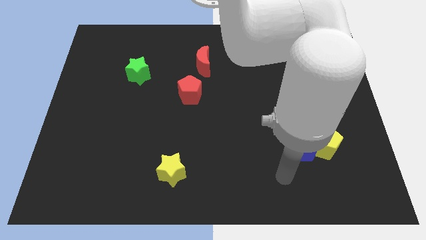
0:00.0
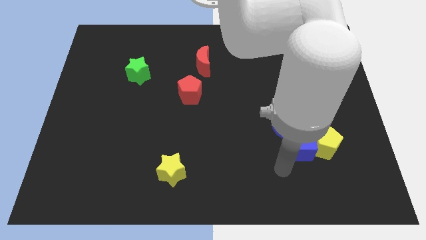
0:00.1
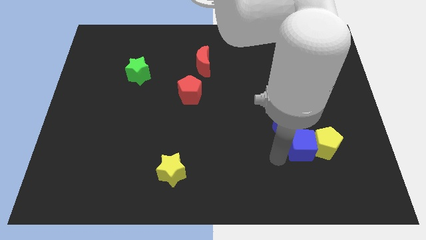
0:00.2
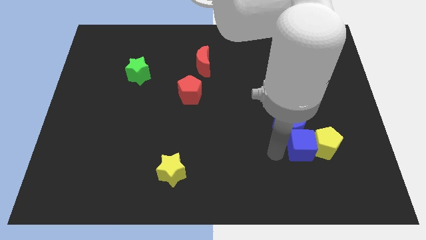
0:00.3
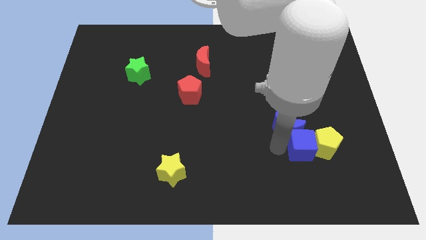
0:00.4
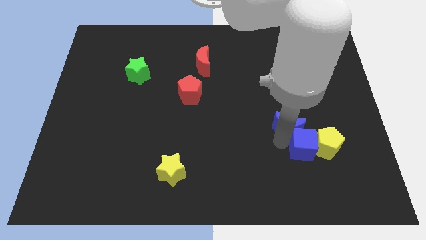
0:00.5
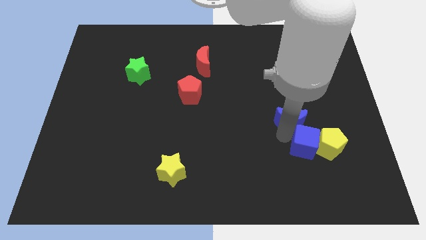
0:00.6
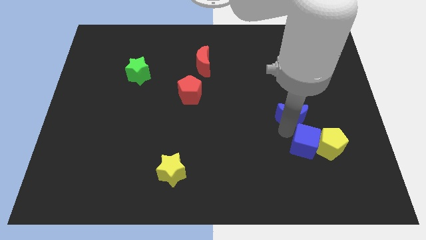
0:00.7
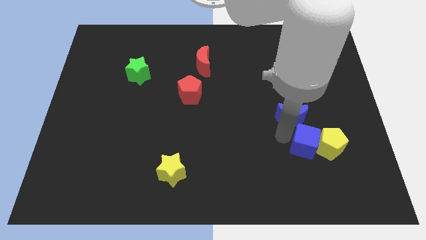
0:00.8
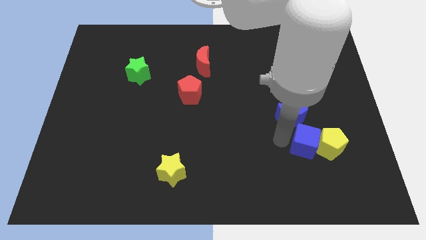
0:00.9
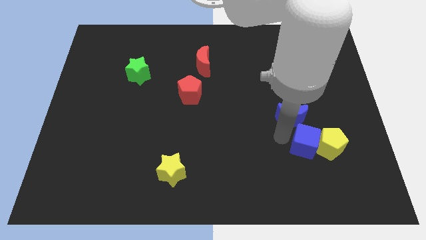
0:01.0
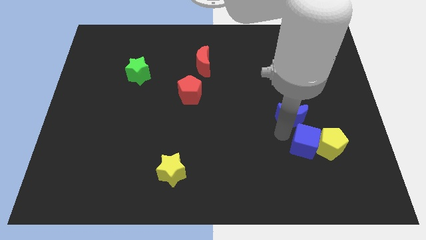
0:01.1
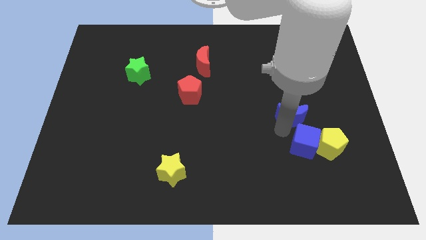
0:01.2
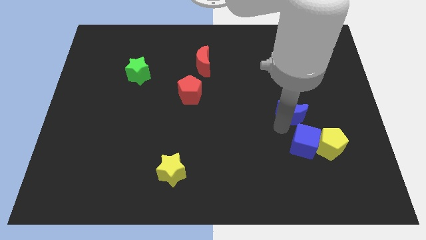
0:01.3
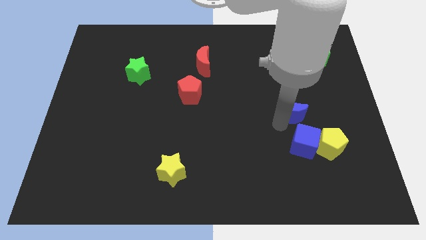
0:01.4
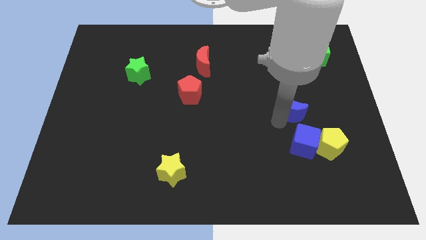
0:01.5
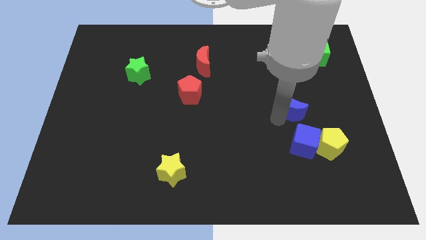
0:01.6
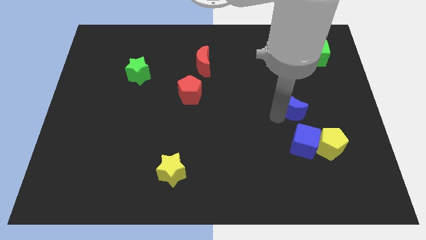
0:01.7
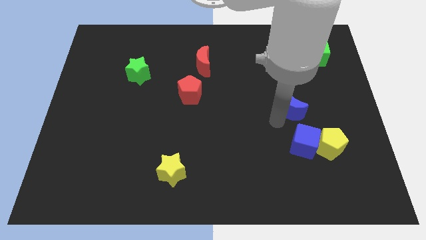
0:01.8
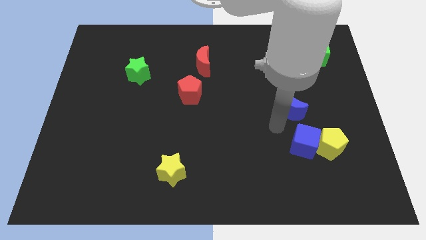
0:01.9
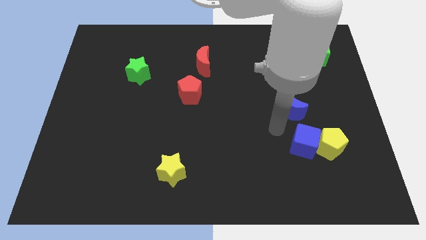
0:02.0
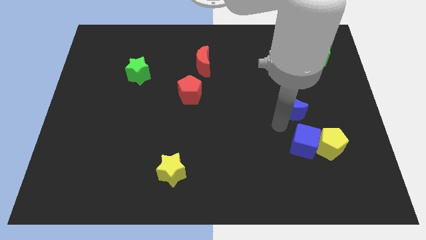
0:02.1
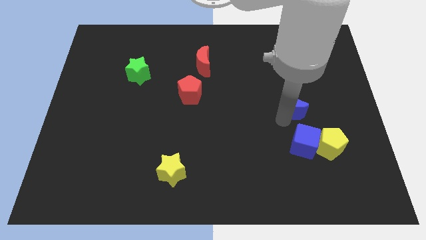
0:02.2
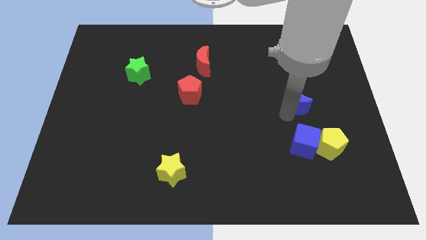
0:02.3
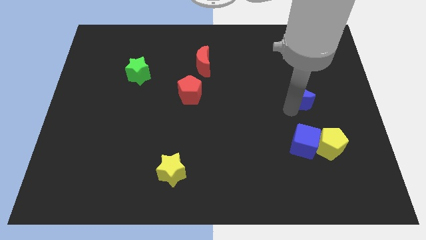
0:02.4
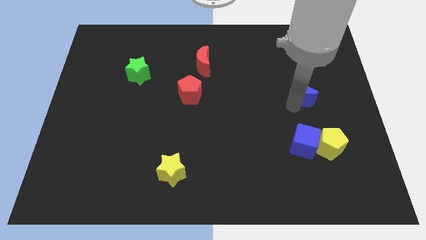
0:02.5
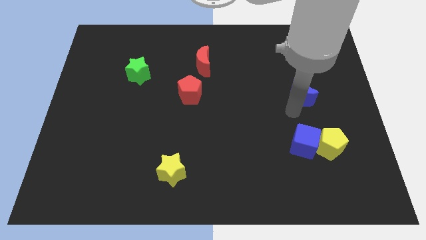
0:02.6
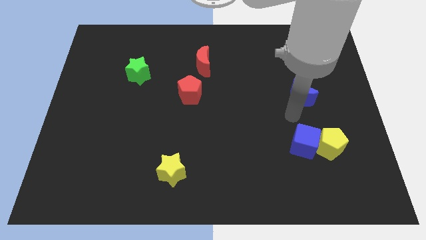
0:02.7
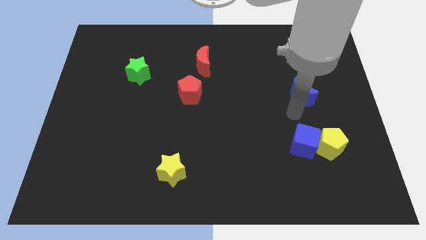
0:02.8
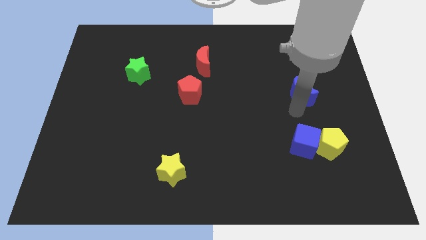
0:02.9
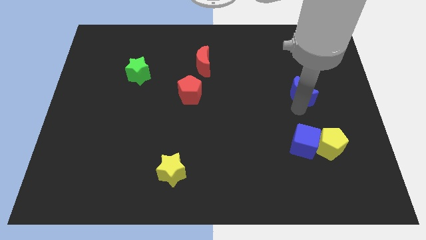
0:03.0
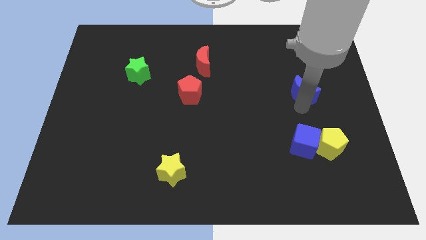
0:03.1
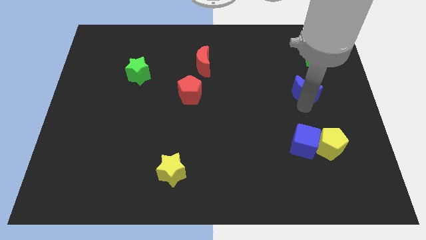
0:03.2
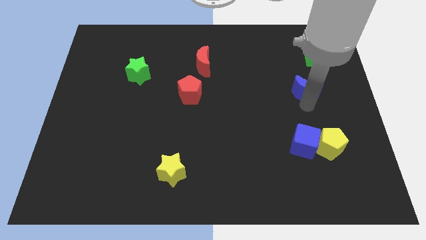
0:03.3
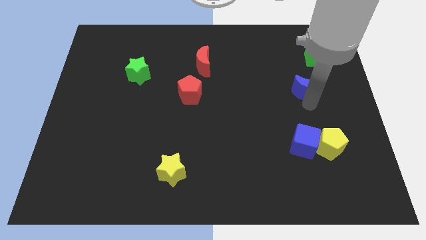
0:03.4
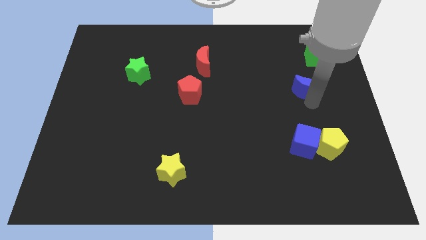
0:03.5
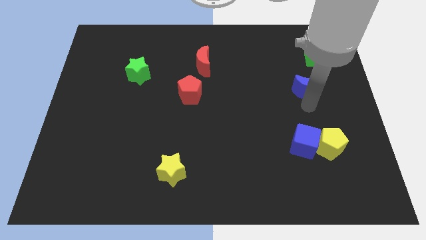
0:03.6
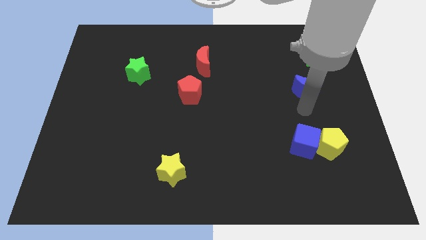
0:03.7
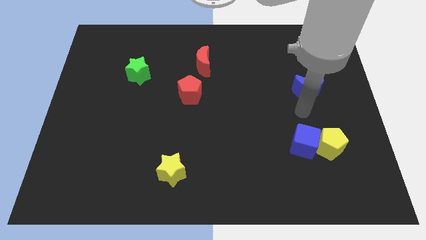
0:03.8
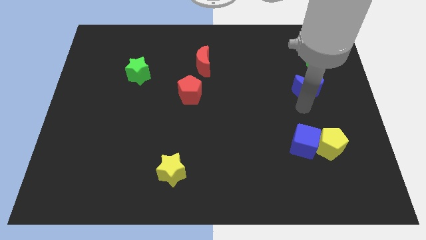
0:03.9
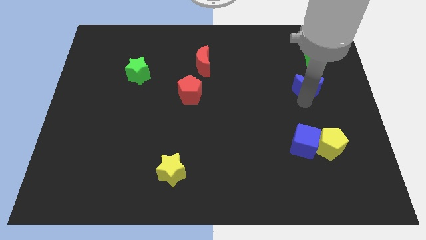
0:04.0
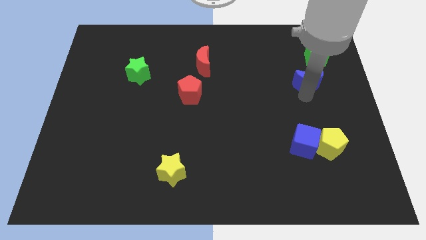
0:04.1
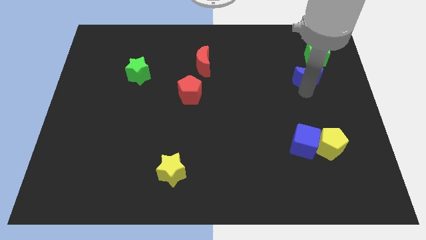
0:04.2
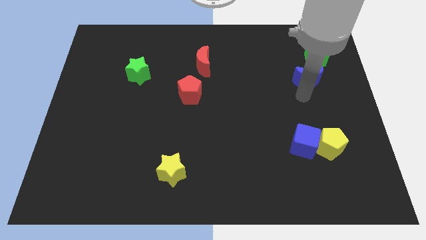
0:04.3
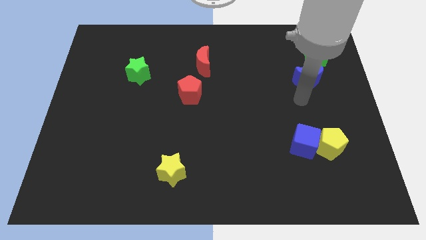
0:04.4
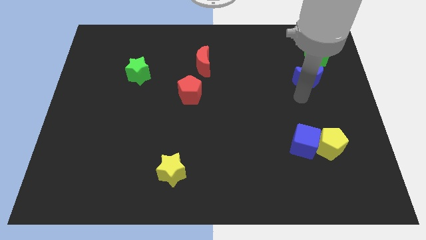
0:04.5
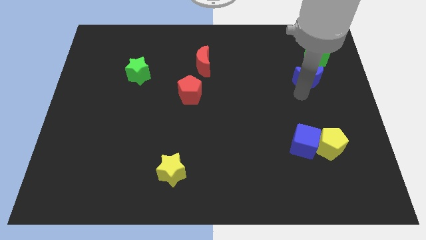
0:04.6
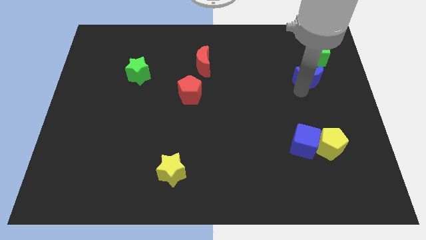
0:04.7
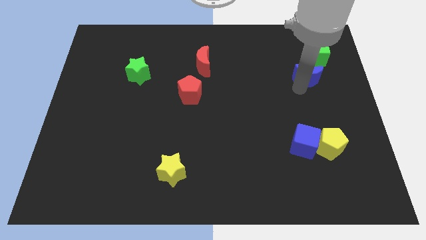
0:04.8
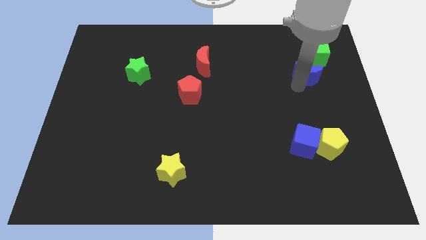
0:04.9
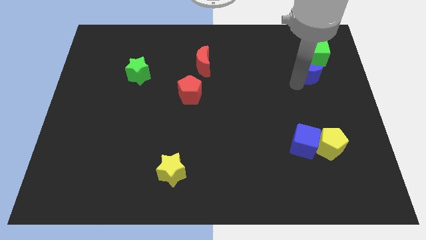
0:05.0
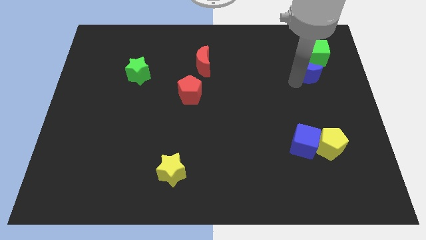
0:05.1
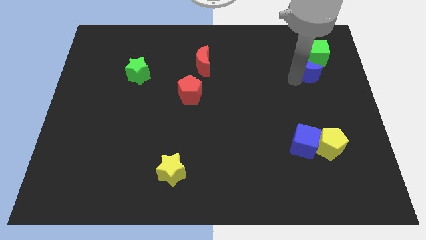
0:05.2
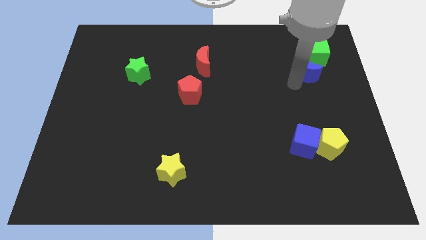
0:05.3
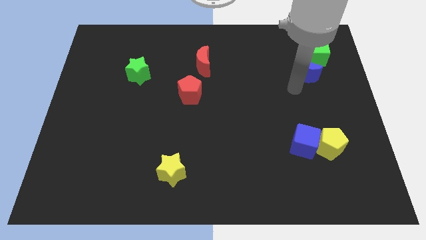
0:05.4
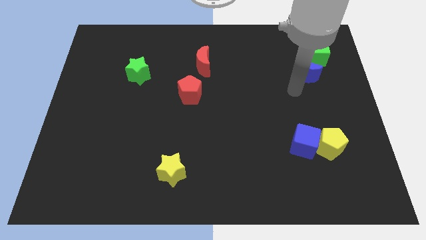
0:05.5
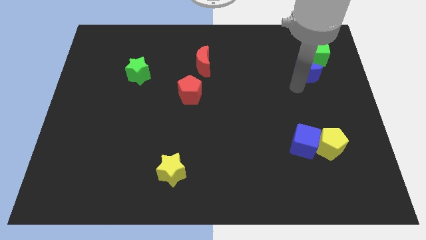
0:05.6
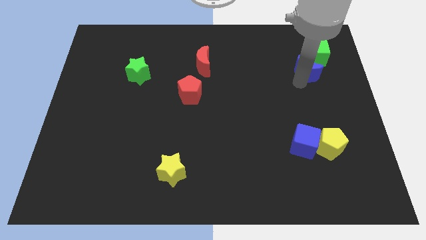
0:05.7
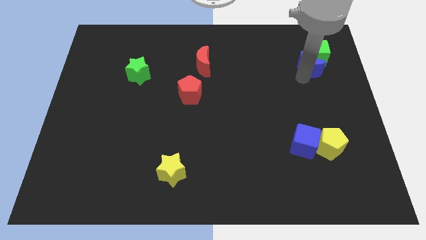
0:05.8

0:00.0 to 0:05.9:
put the blue moon towards the green cube

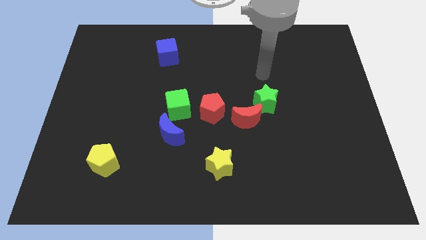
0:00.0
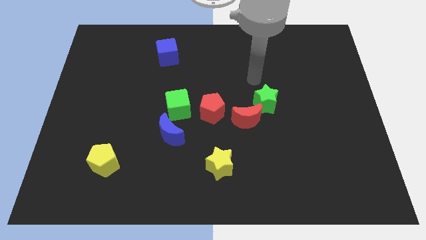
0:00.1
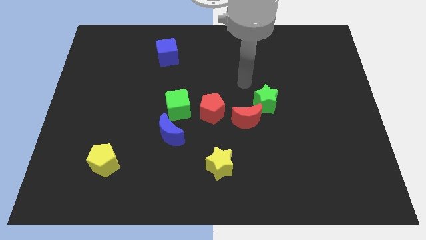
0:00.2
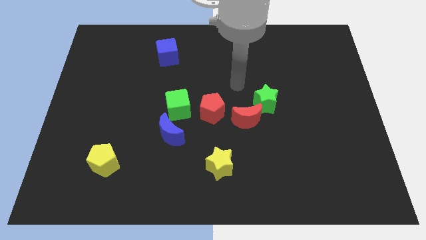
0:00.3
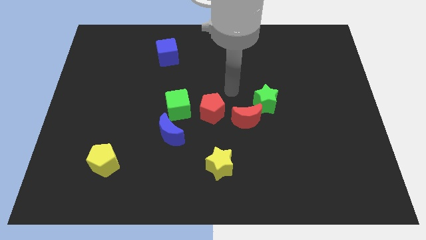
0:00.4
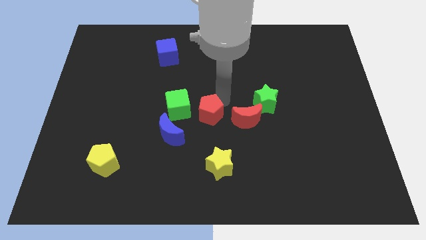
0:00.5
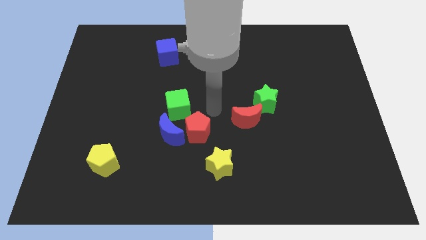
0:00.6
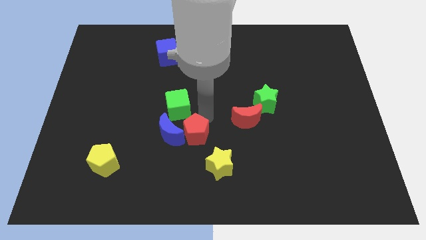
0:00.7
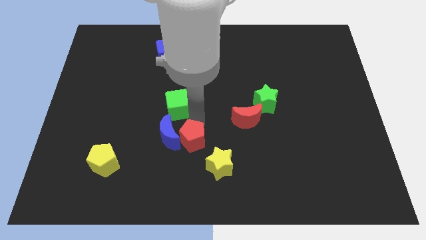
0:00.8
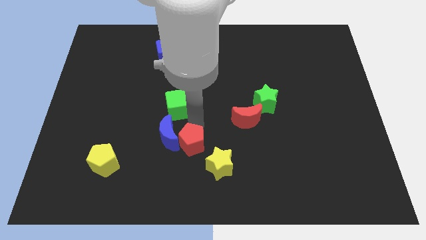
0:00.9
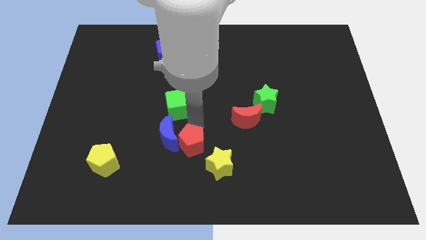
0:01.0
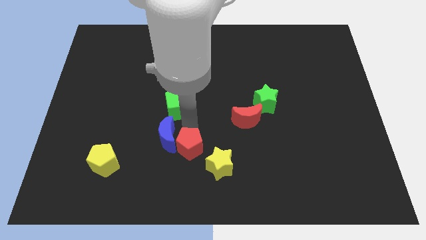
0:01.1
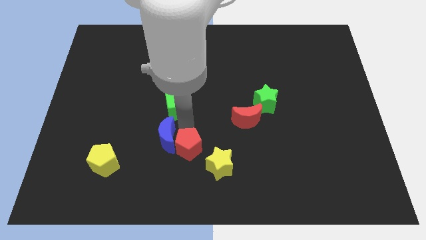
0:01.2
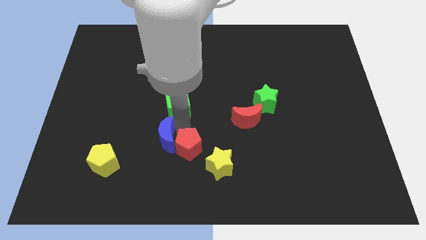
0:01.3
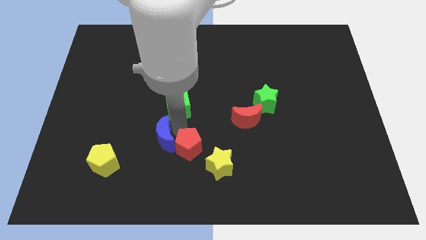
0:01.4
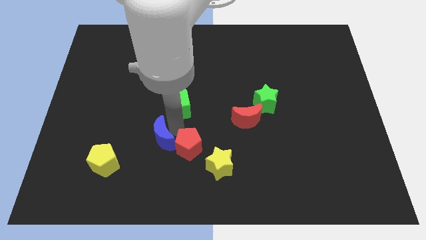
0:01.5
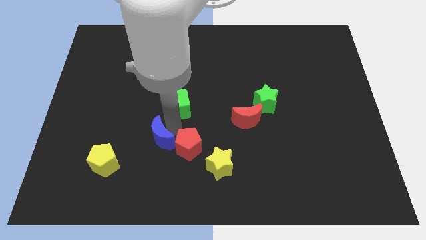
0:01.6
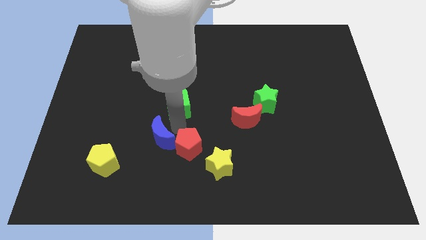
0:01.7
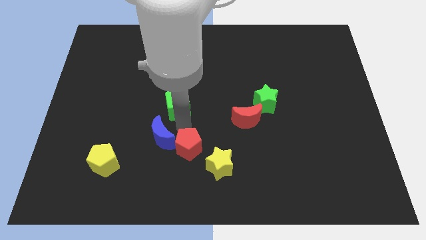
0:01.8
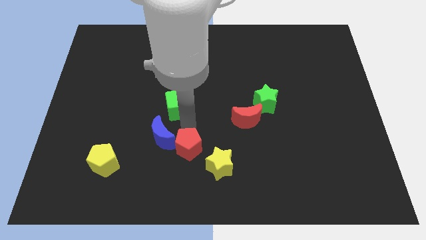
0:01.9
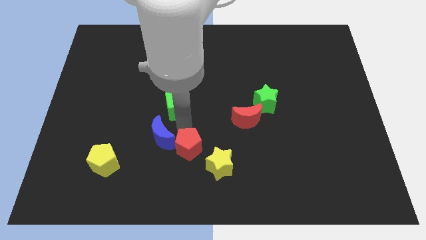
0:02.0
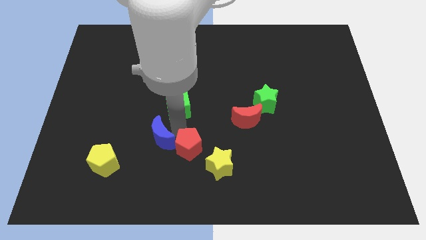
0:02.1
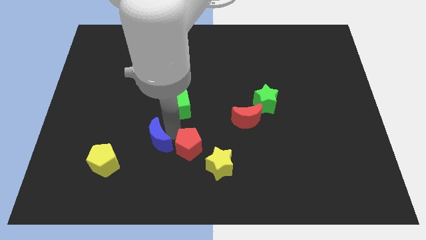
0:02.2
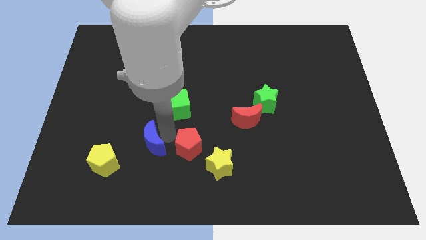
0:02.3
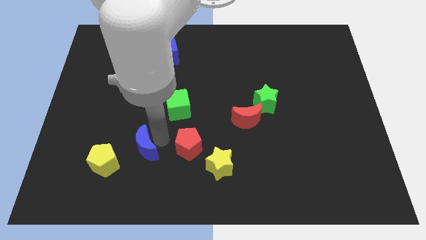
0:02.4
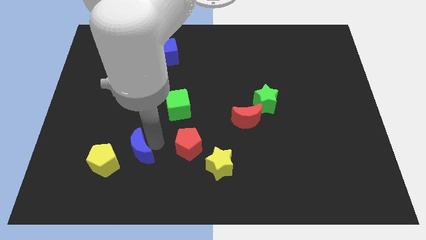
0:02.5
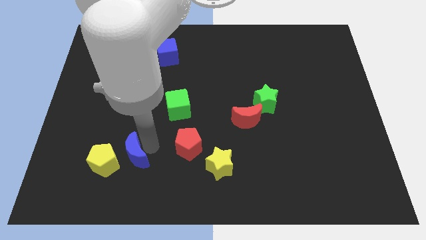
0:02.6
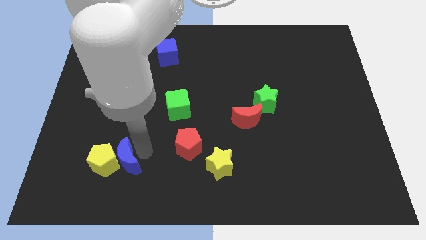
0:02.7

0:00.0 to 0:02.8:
move the blue moon towards the yellow pentagon
